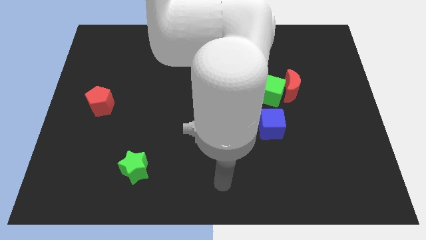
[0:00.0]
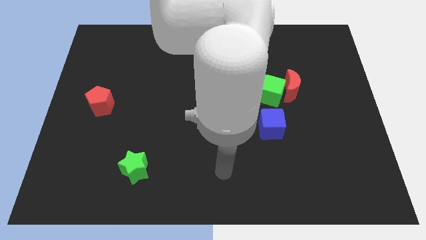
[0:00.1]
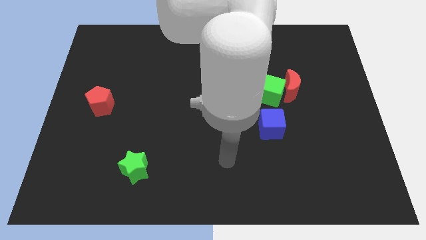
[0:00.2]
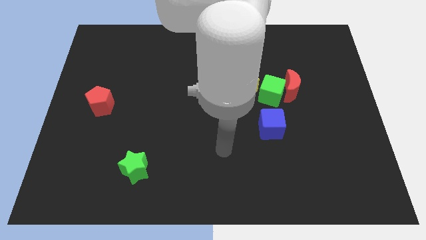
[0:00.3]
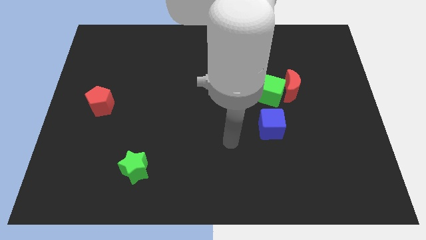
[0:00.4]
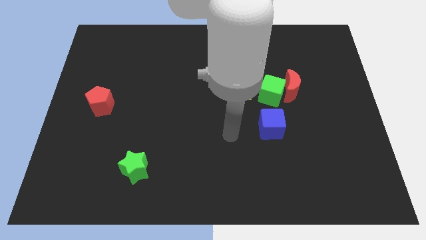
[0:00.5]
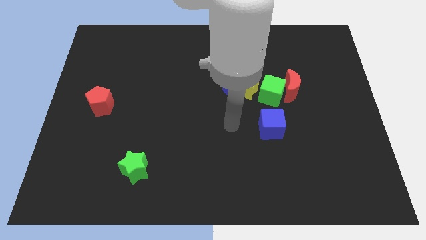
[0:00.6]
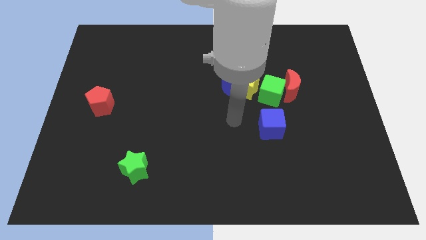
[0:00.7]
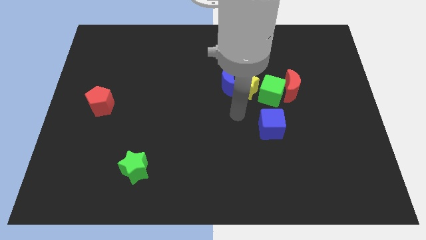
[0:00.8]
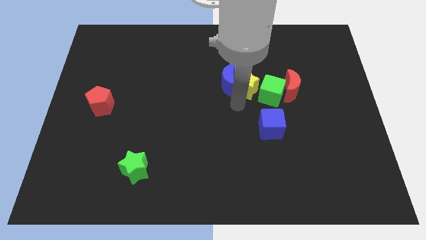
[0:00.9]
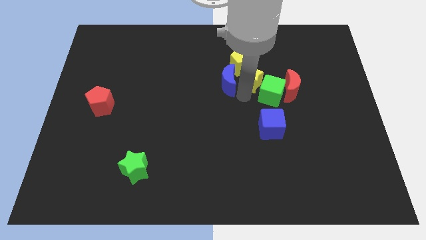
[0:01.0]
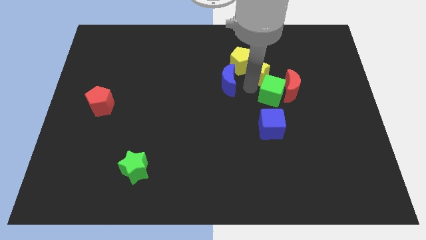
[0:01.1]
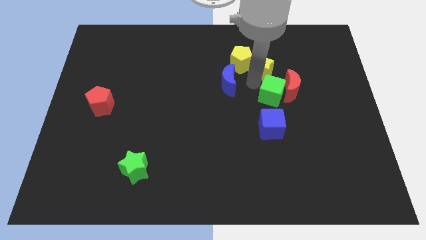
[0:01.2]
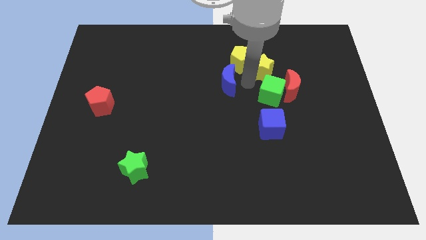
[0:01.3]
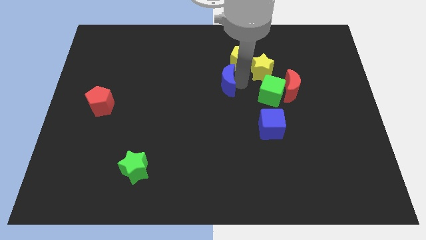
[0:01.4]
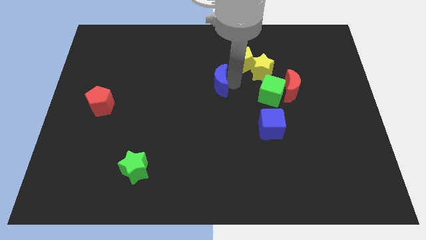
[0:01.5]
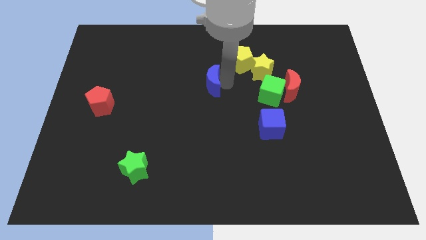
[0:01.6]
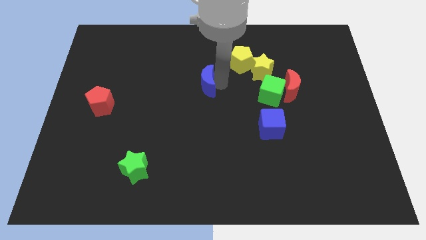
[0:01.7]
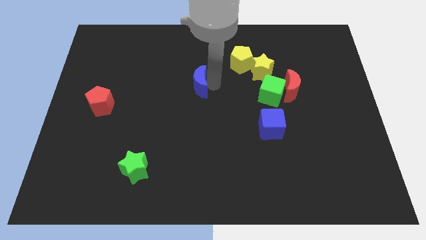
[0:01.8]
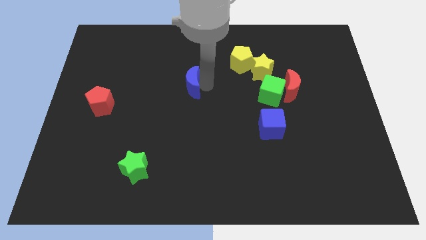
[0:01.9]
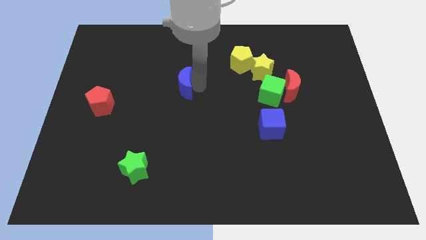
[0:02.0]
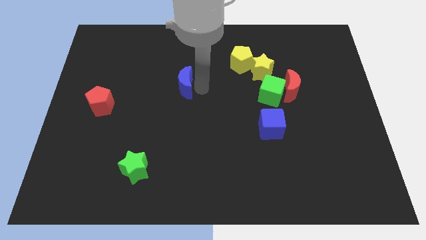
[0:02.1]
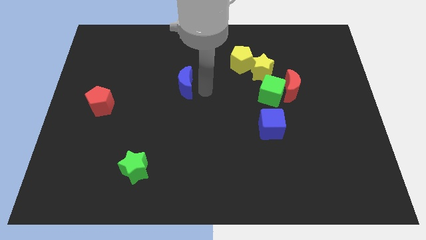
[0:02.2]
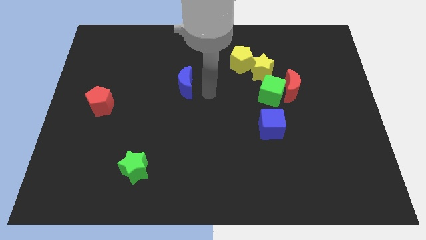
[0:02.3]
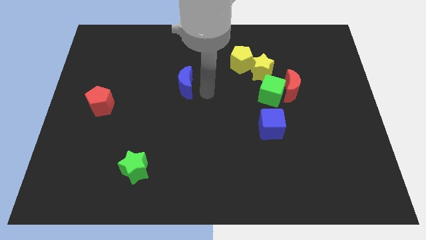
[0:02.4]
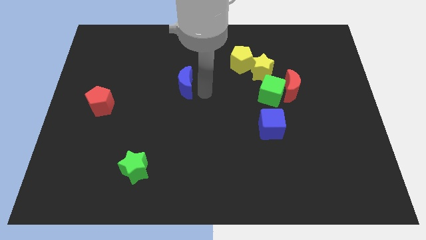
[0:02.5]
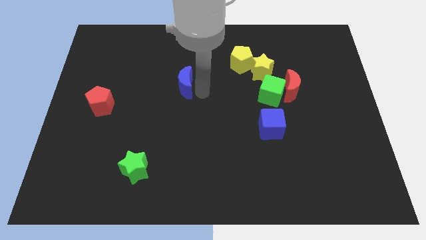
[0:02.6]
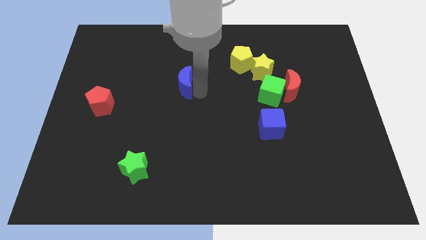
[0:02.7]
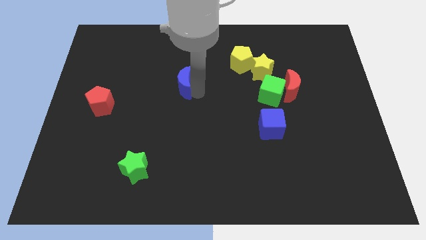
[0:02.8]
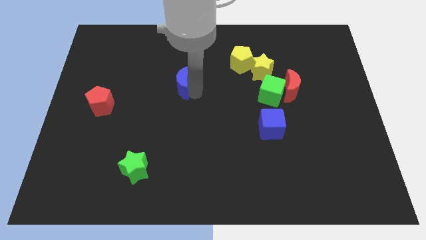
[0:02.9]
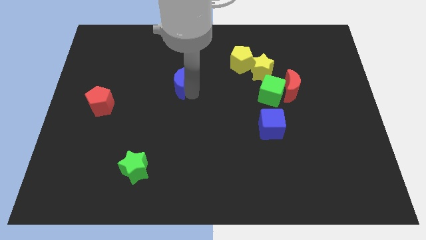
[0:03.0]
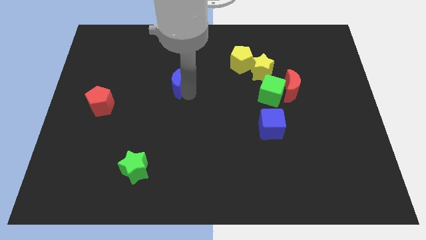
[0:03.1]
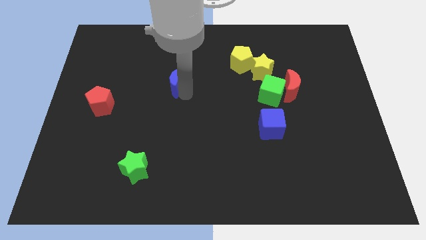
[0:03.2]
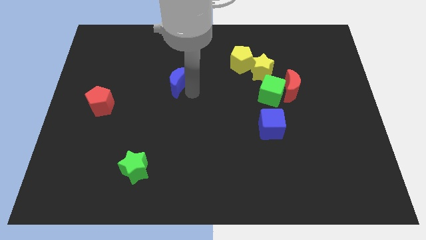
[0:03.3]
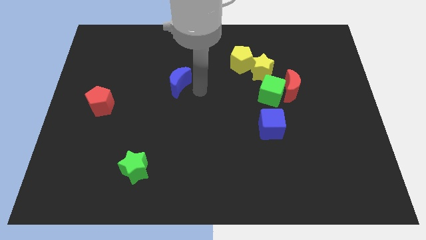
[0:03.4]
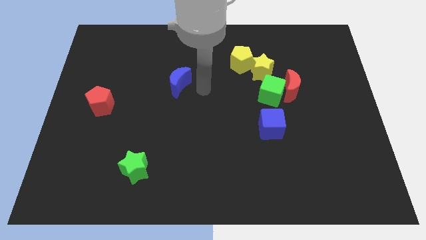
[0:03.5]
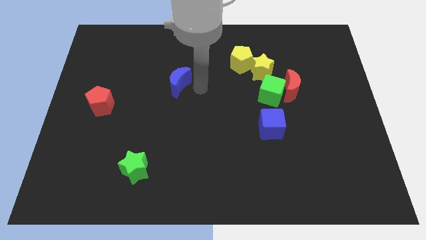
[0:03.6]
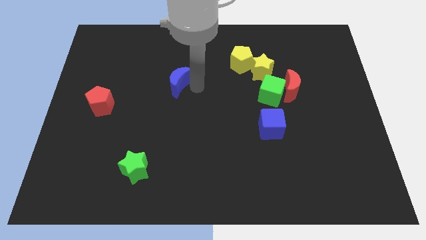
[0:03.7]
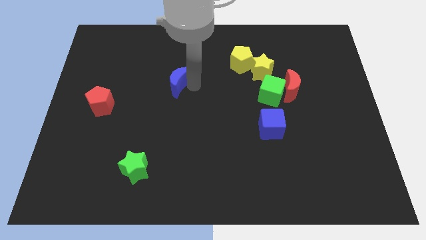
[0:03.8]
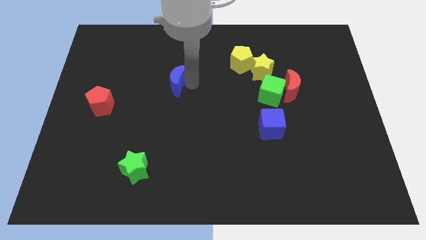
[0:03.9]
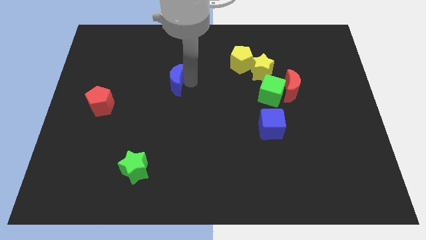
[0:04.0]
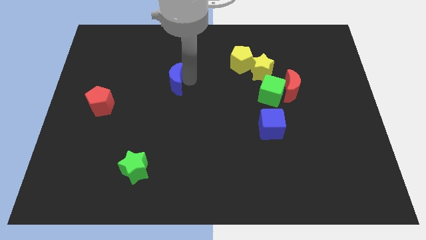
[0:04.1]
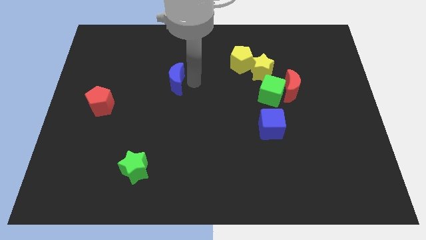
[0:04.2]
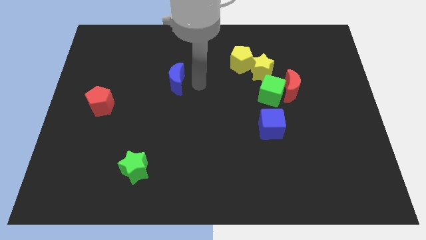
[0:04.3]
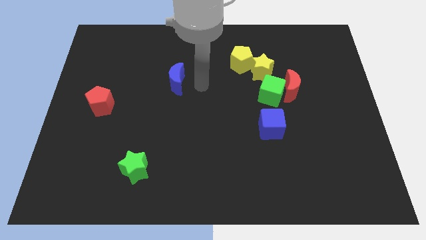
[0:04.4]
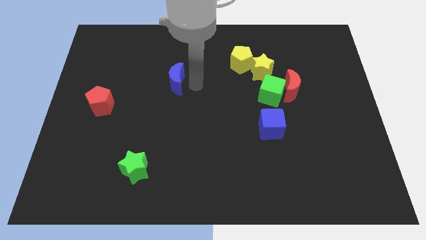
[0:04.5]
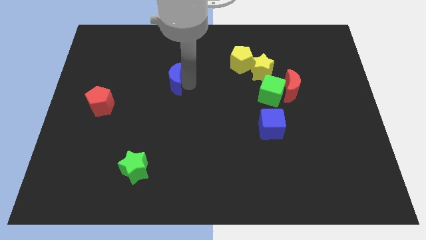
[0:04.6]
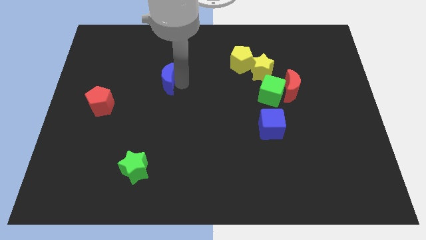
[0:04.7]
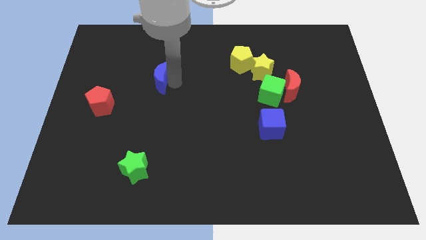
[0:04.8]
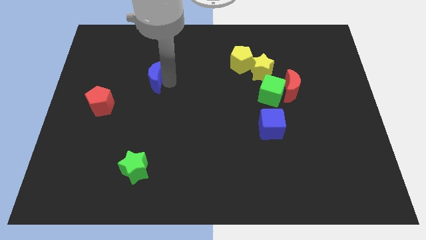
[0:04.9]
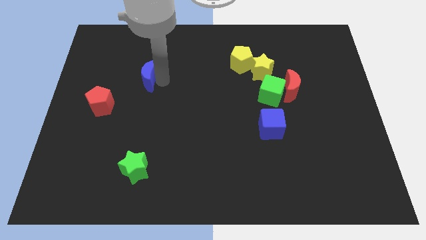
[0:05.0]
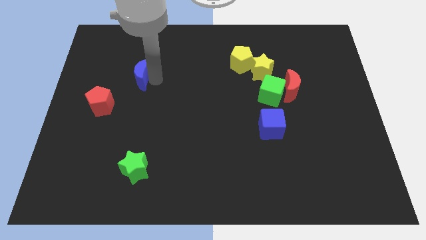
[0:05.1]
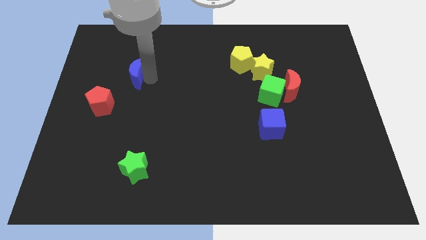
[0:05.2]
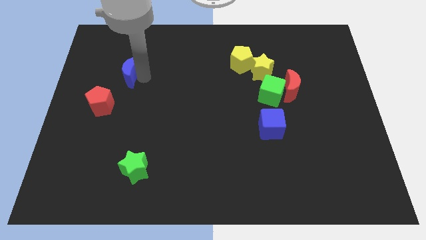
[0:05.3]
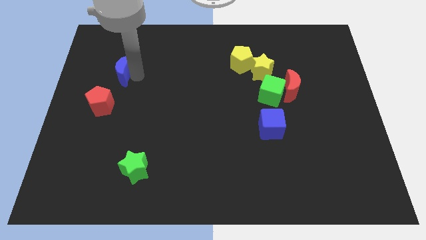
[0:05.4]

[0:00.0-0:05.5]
slide the blue moon to the top of the red pentagon

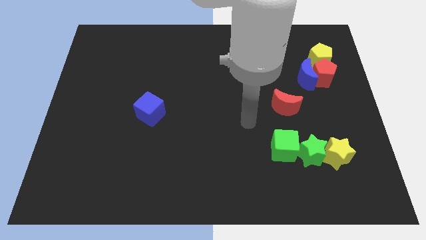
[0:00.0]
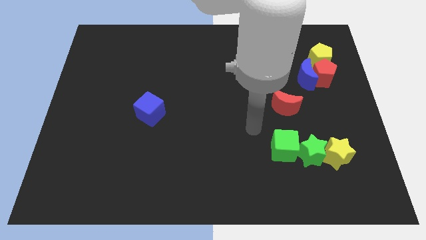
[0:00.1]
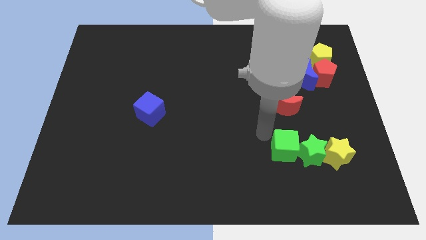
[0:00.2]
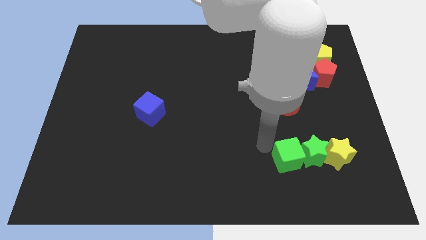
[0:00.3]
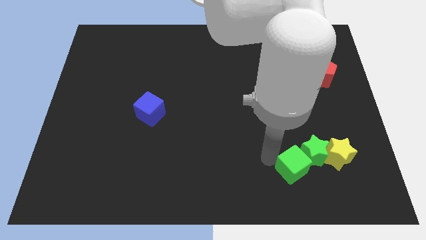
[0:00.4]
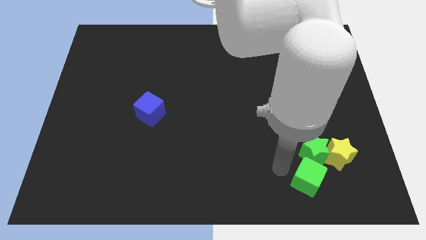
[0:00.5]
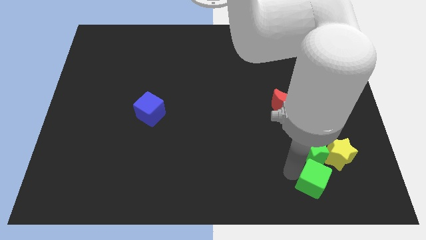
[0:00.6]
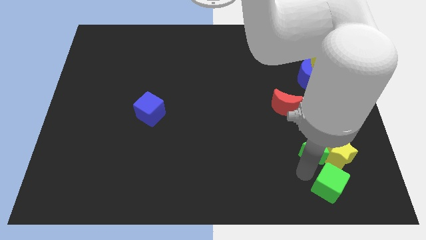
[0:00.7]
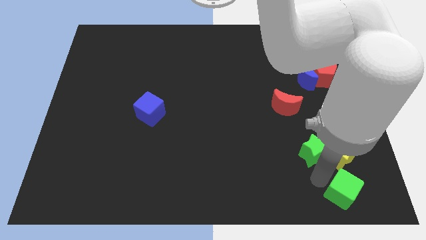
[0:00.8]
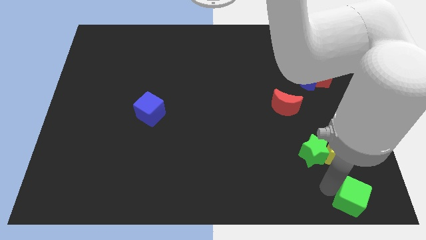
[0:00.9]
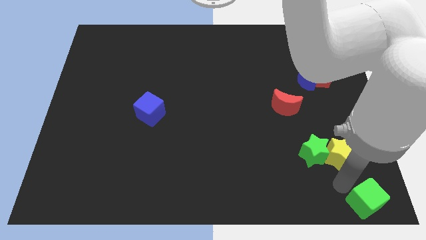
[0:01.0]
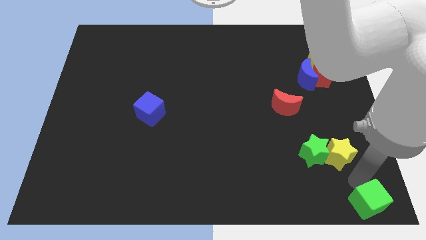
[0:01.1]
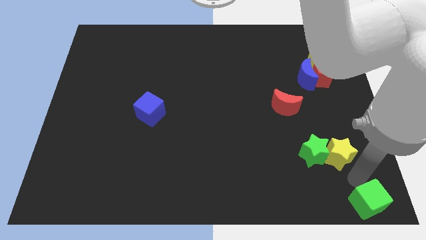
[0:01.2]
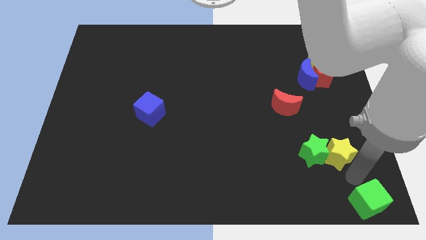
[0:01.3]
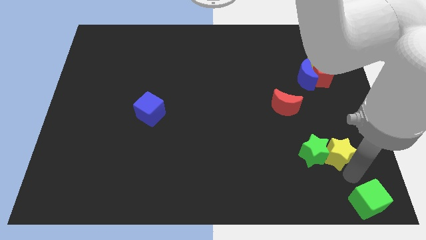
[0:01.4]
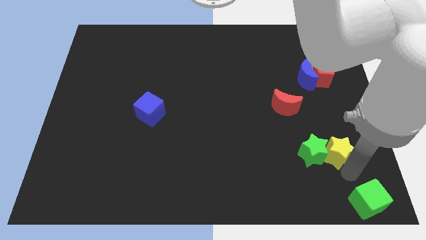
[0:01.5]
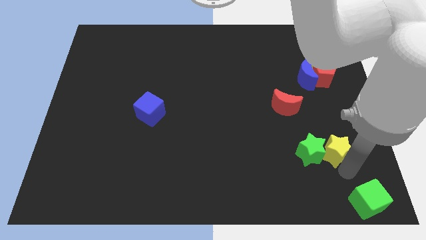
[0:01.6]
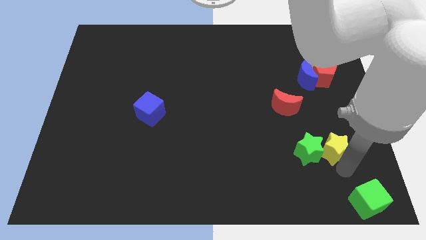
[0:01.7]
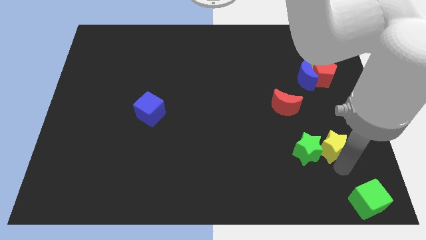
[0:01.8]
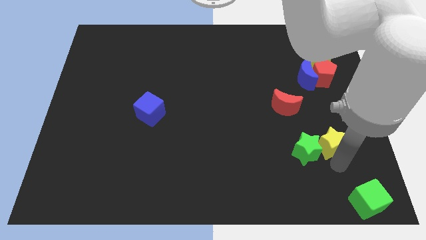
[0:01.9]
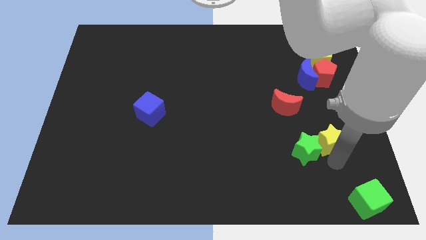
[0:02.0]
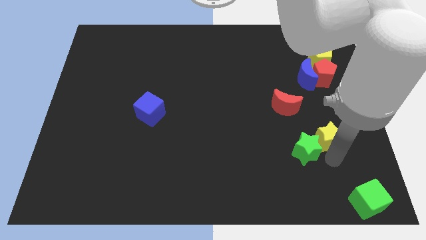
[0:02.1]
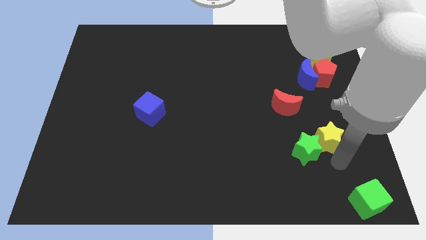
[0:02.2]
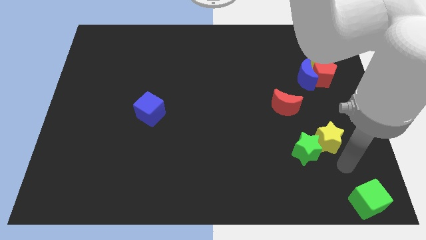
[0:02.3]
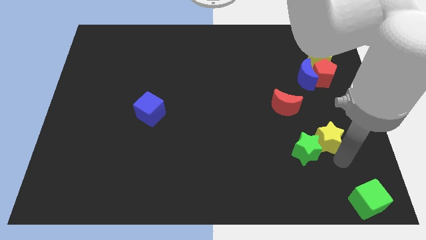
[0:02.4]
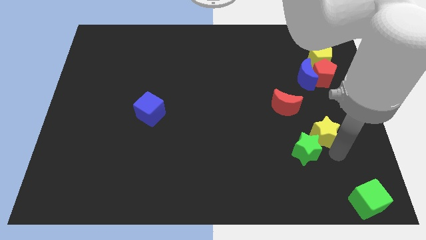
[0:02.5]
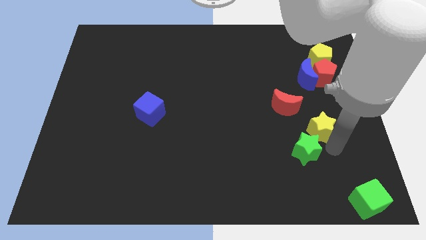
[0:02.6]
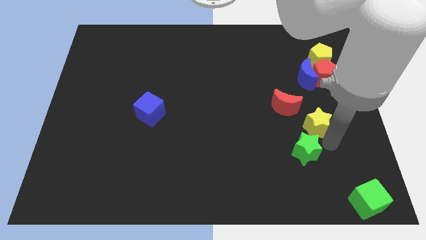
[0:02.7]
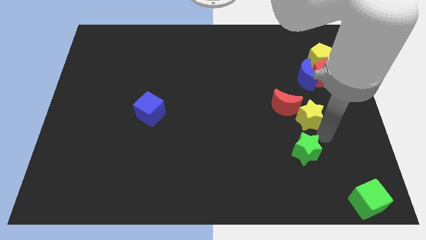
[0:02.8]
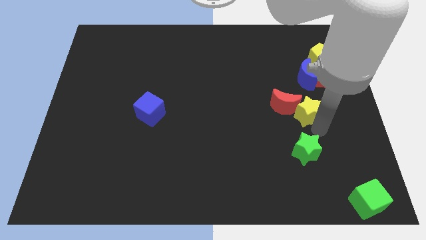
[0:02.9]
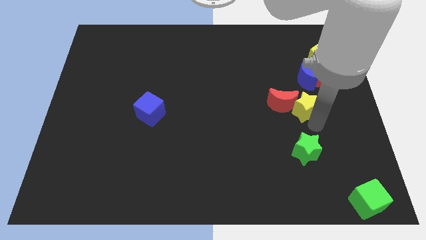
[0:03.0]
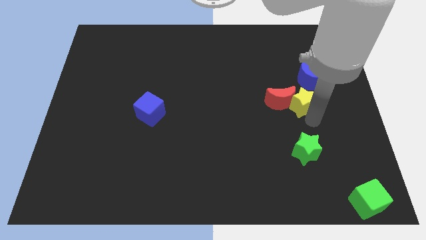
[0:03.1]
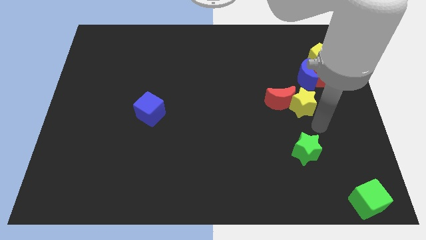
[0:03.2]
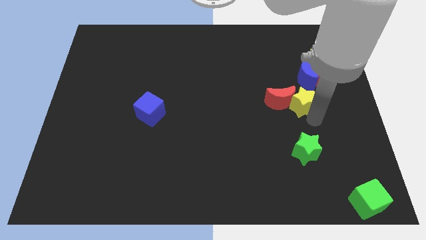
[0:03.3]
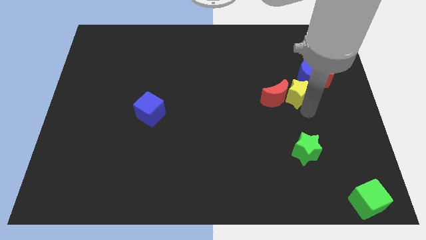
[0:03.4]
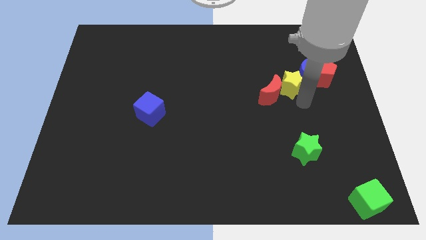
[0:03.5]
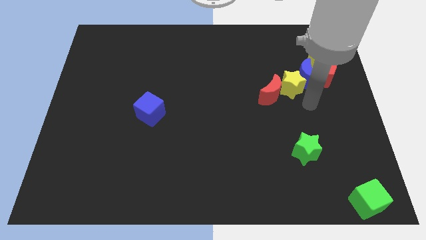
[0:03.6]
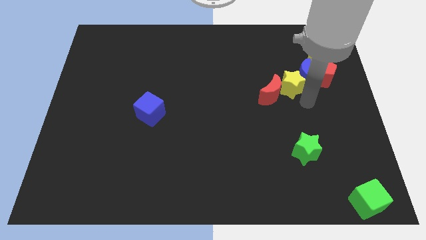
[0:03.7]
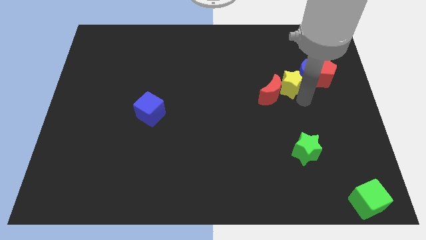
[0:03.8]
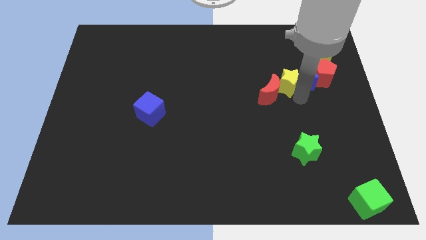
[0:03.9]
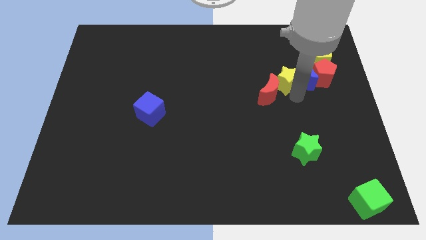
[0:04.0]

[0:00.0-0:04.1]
slide the yellow star to the top of the red moon
